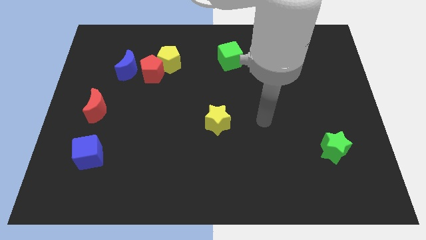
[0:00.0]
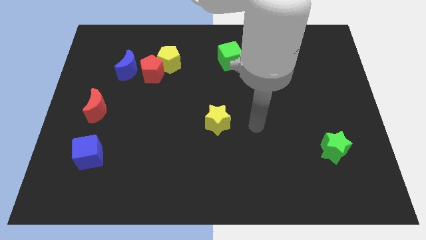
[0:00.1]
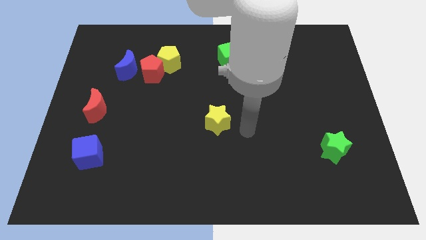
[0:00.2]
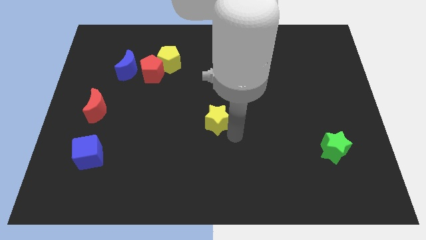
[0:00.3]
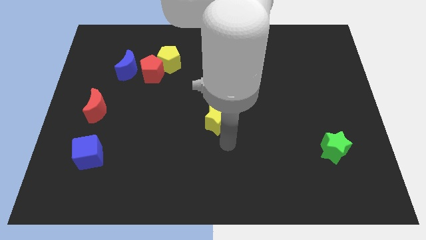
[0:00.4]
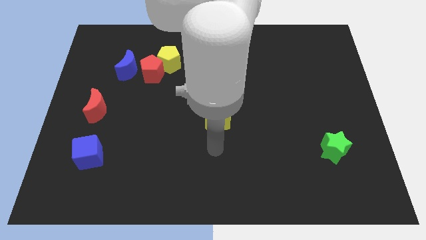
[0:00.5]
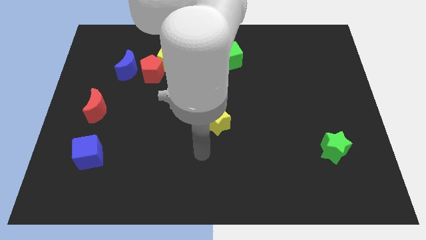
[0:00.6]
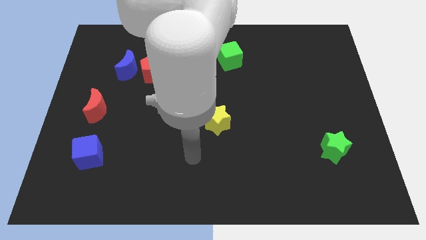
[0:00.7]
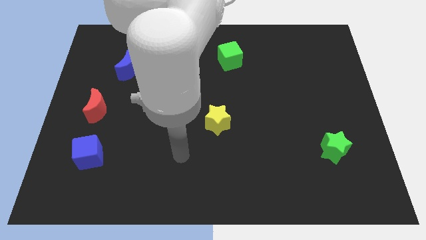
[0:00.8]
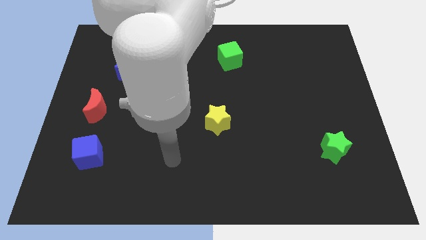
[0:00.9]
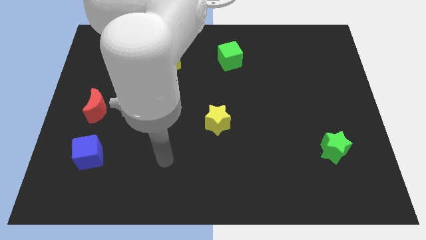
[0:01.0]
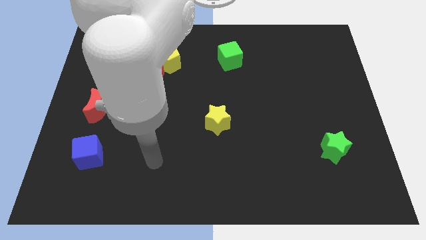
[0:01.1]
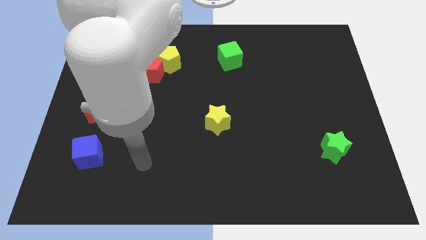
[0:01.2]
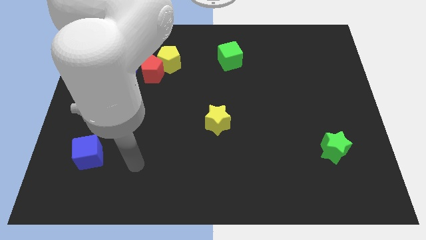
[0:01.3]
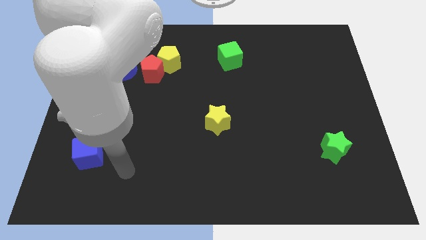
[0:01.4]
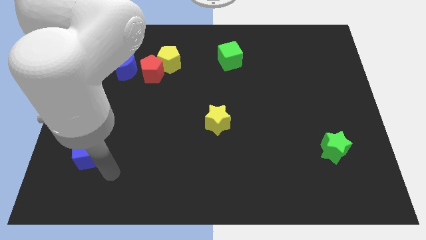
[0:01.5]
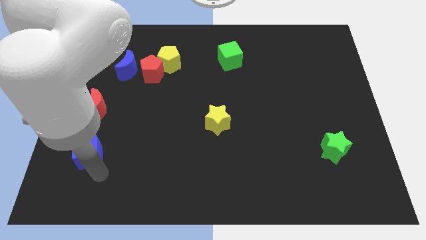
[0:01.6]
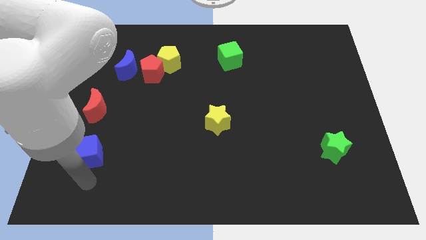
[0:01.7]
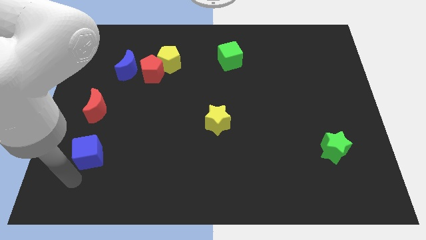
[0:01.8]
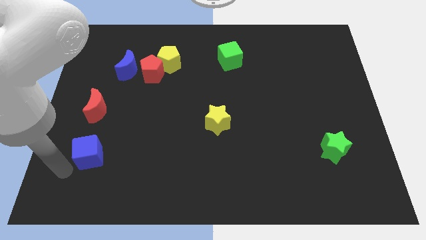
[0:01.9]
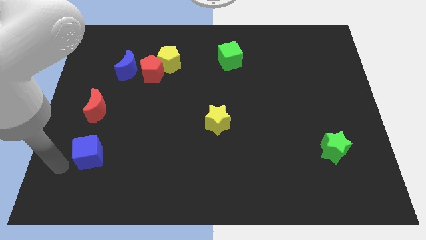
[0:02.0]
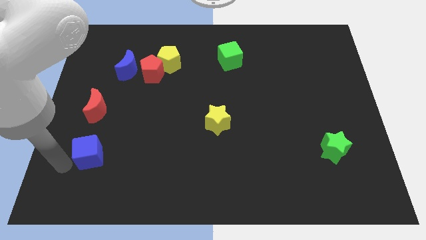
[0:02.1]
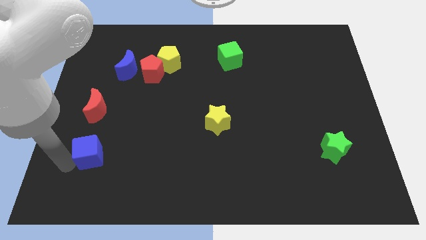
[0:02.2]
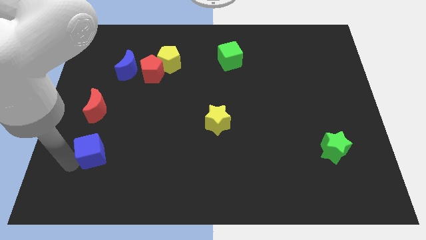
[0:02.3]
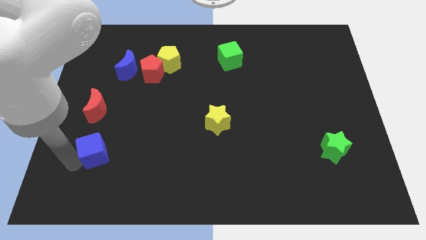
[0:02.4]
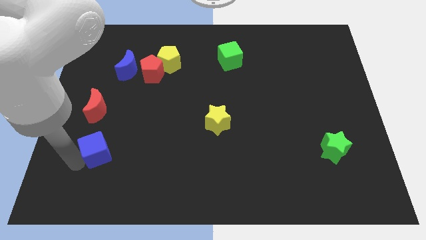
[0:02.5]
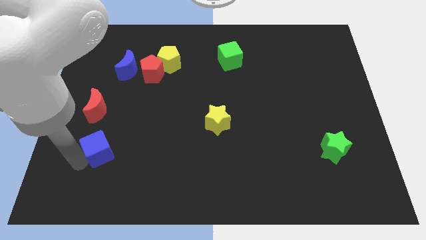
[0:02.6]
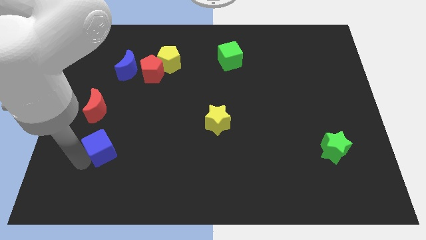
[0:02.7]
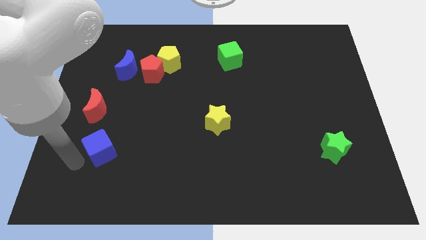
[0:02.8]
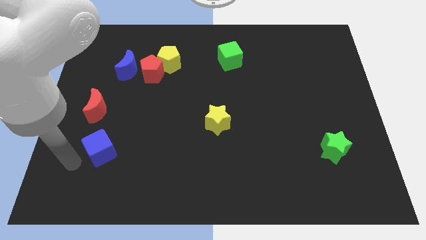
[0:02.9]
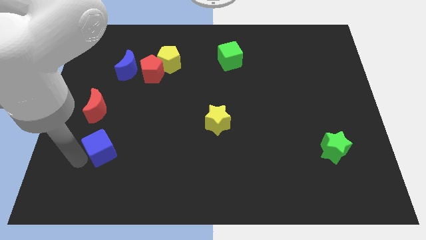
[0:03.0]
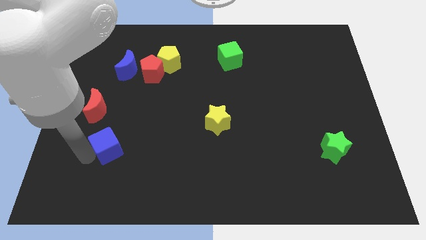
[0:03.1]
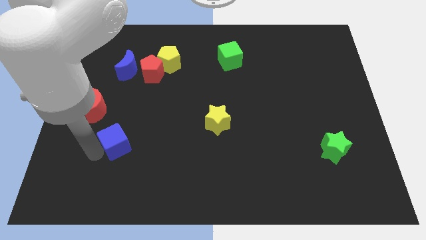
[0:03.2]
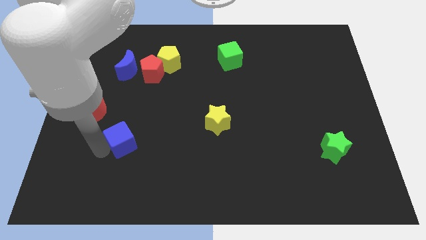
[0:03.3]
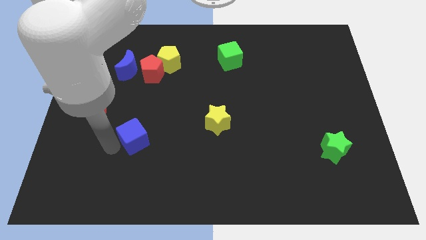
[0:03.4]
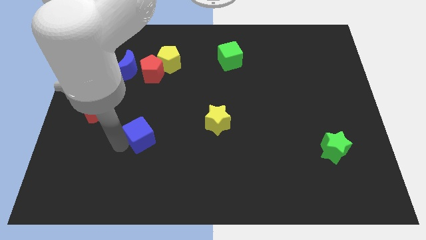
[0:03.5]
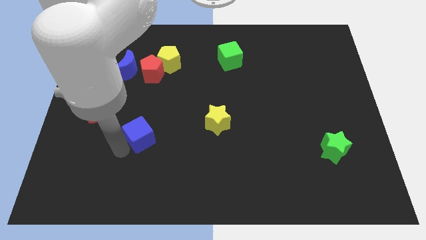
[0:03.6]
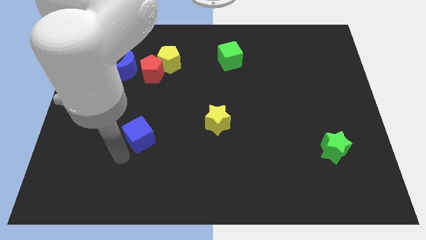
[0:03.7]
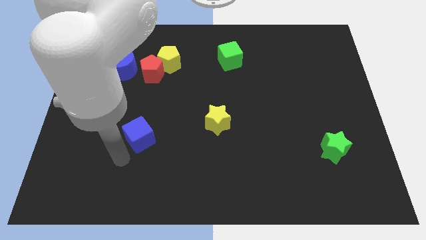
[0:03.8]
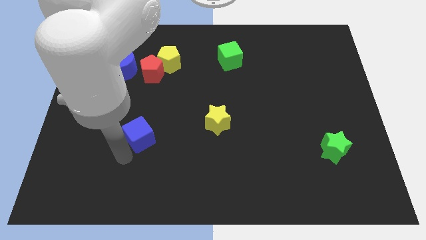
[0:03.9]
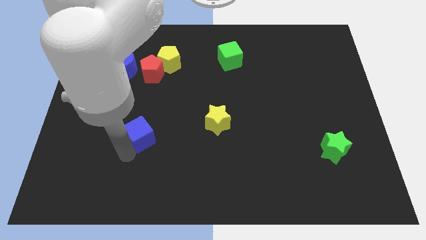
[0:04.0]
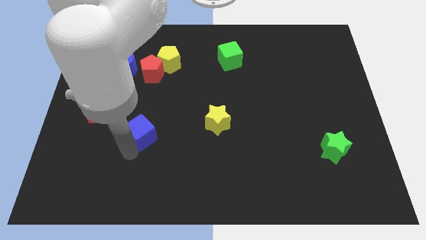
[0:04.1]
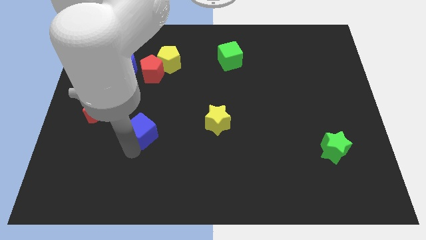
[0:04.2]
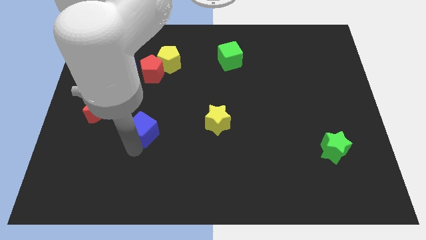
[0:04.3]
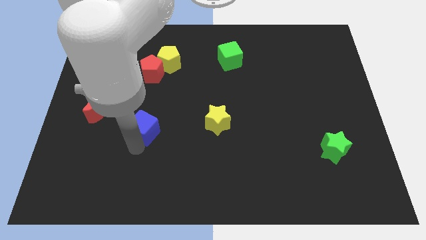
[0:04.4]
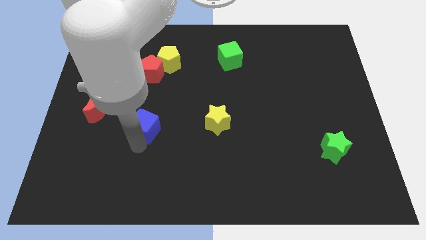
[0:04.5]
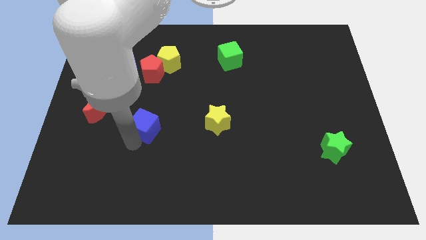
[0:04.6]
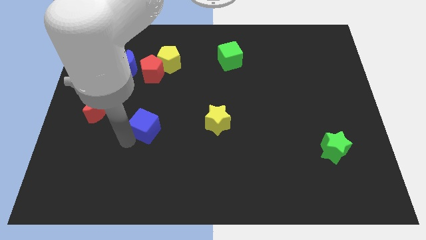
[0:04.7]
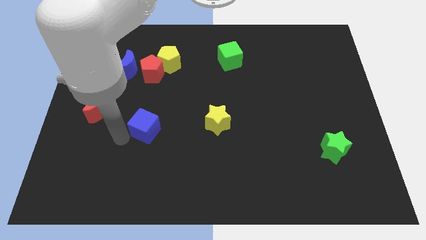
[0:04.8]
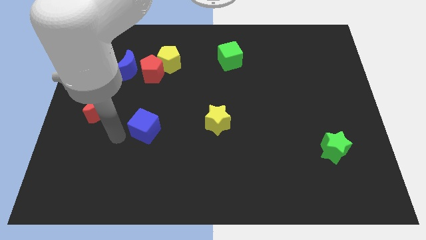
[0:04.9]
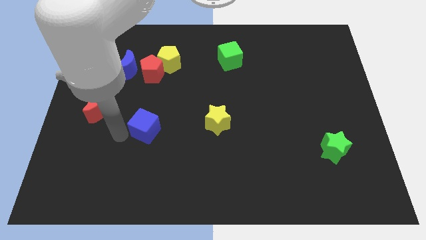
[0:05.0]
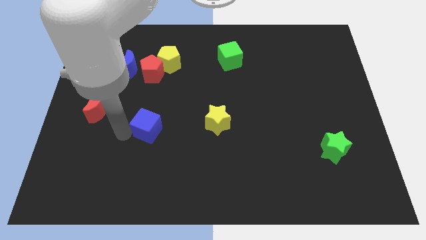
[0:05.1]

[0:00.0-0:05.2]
put the blue cube to the left side of the yellow star

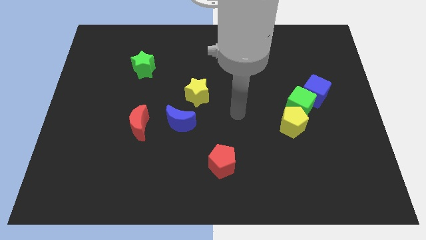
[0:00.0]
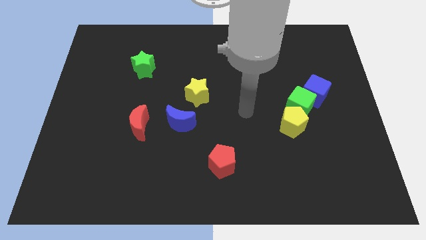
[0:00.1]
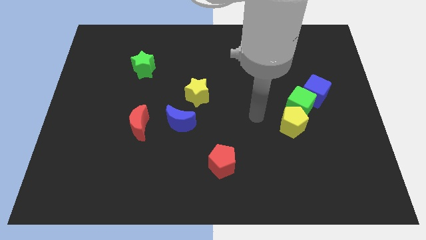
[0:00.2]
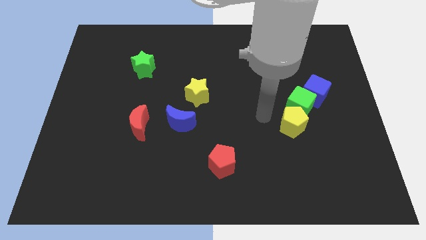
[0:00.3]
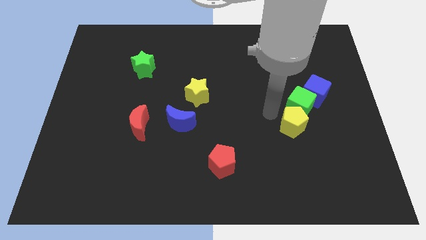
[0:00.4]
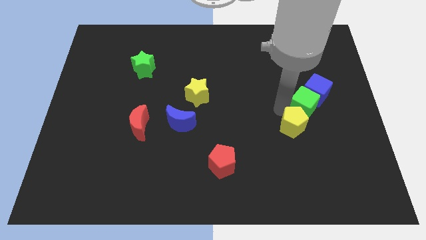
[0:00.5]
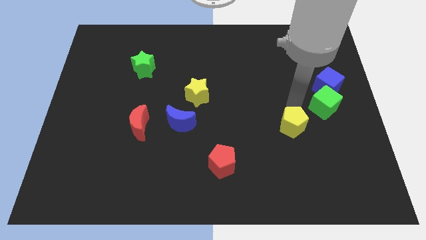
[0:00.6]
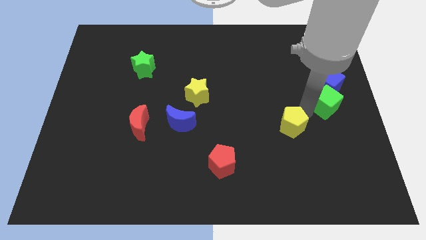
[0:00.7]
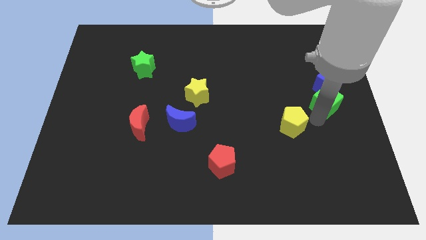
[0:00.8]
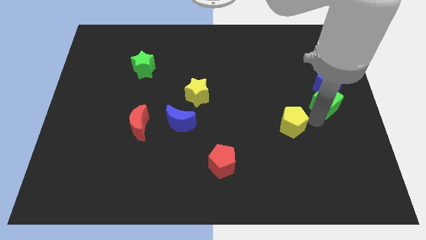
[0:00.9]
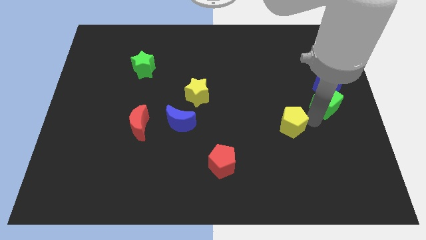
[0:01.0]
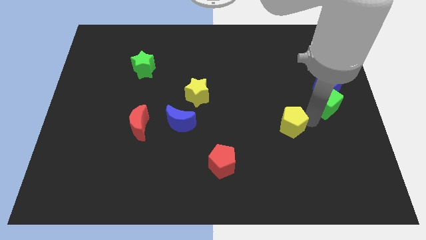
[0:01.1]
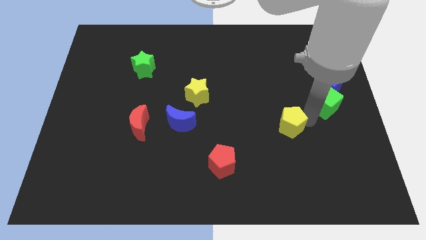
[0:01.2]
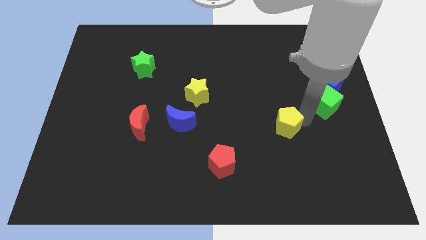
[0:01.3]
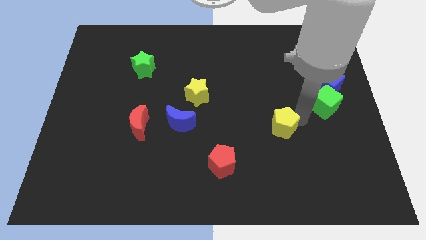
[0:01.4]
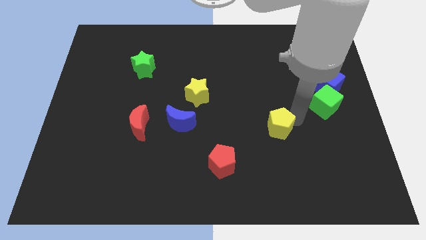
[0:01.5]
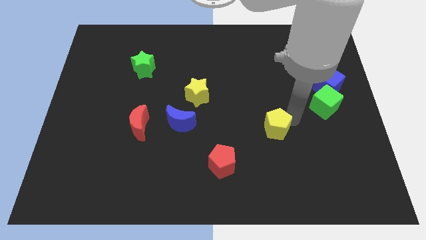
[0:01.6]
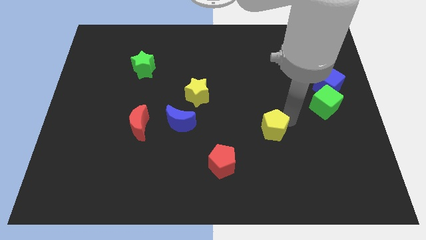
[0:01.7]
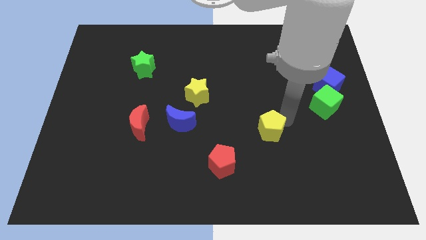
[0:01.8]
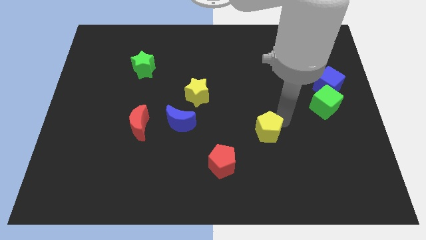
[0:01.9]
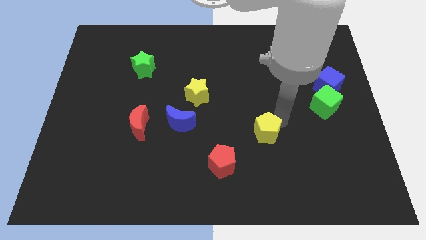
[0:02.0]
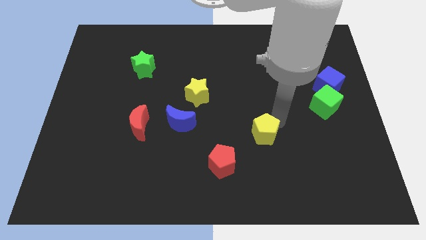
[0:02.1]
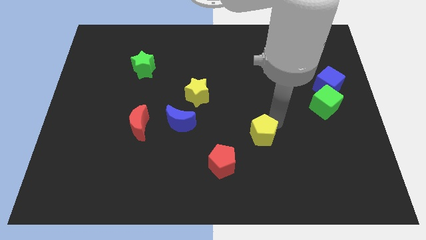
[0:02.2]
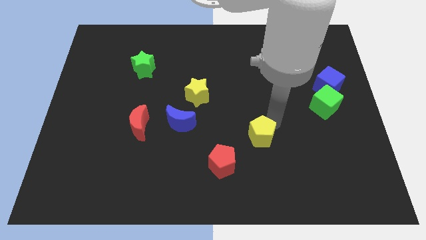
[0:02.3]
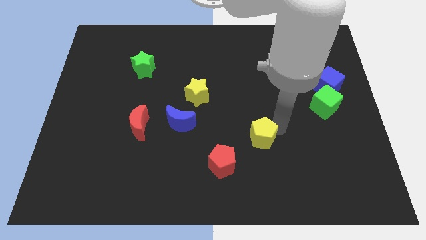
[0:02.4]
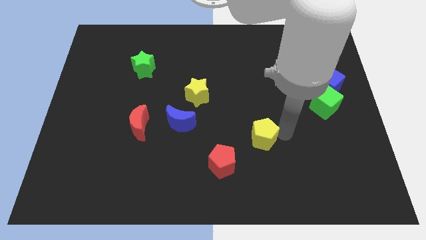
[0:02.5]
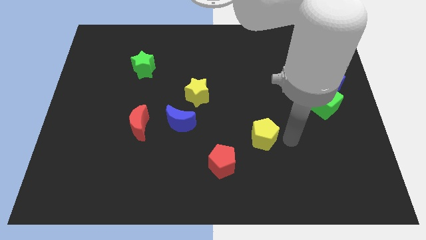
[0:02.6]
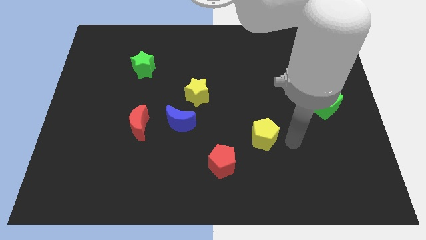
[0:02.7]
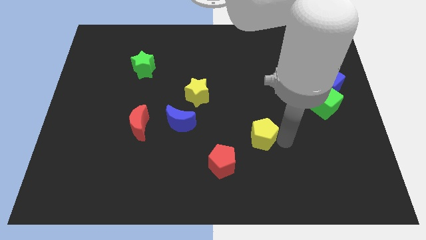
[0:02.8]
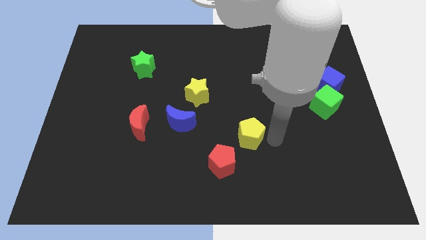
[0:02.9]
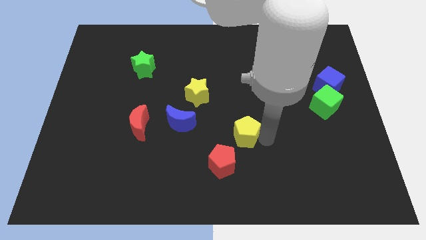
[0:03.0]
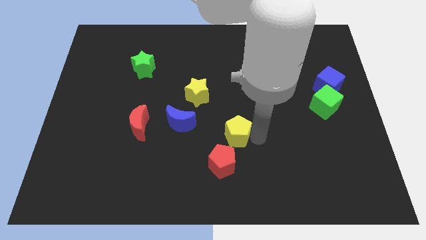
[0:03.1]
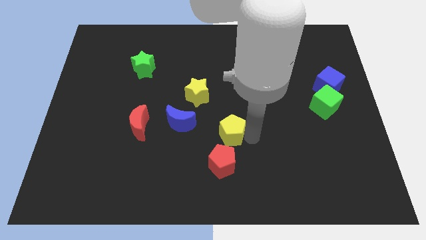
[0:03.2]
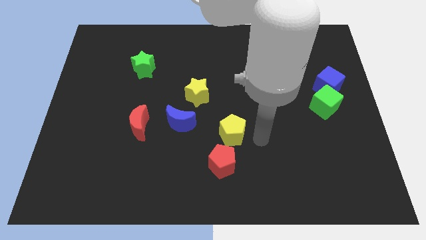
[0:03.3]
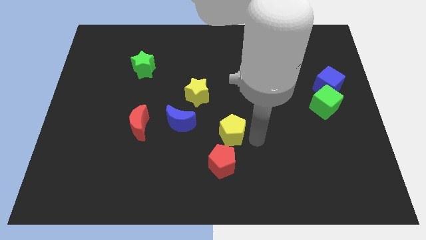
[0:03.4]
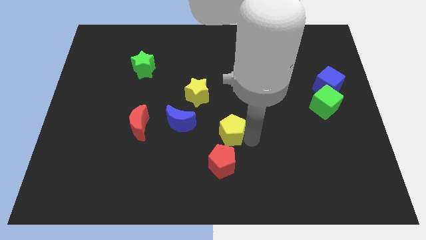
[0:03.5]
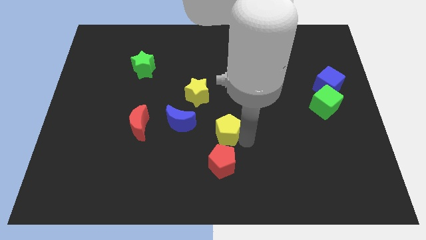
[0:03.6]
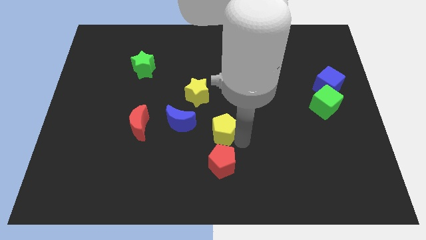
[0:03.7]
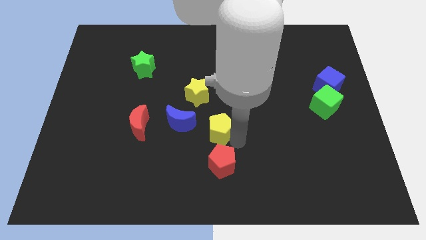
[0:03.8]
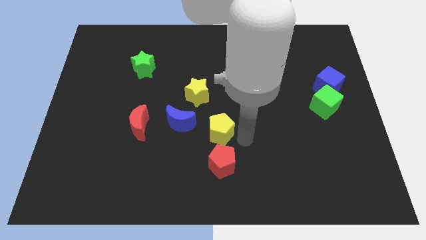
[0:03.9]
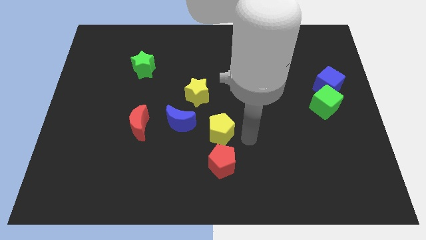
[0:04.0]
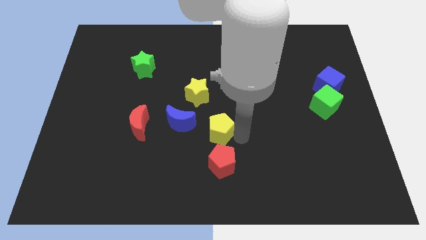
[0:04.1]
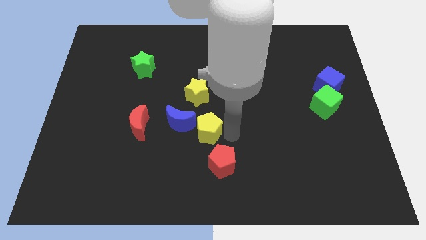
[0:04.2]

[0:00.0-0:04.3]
slide the yellow pentagon just right of the red moon
